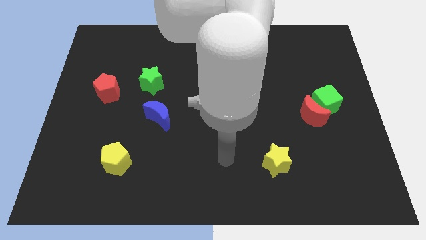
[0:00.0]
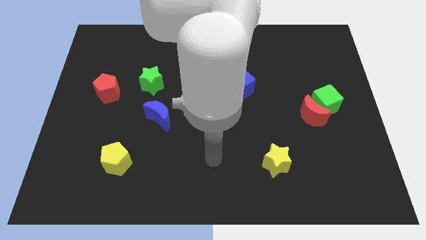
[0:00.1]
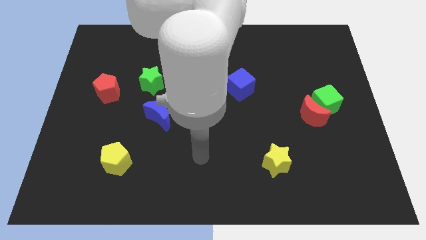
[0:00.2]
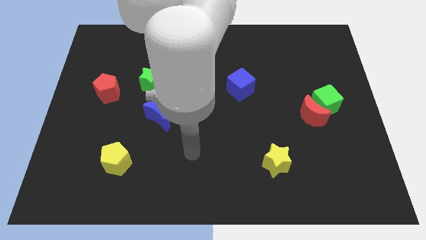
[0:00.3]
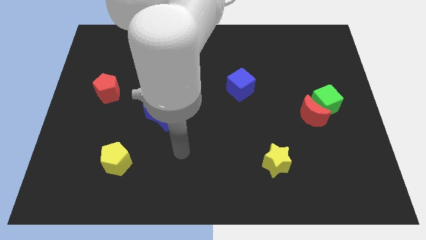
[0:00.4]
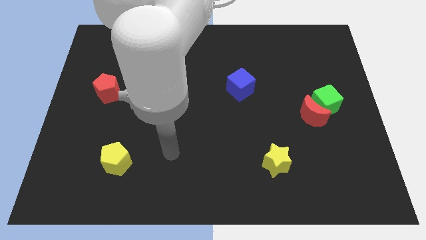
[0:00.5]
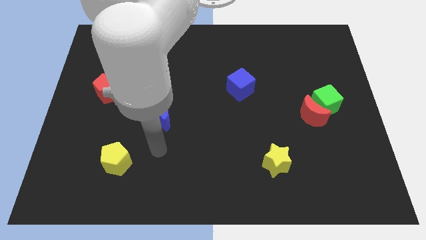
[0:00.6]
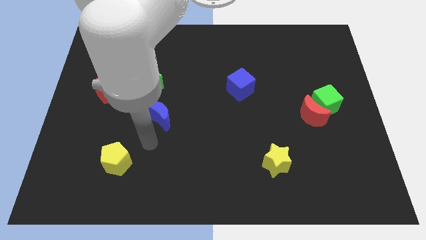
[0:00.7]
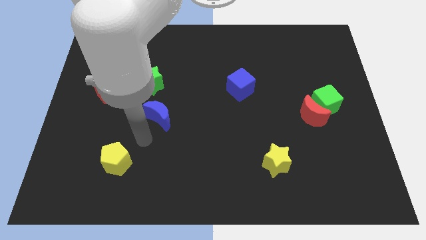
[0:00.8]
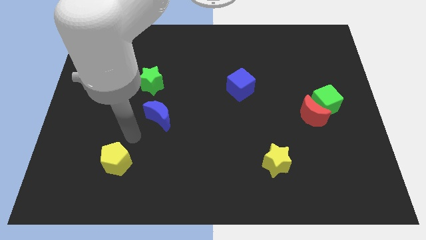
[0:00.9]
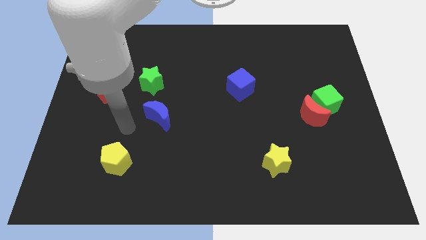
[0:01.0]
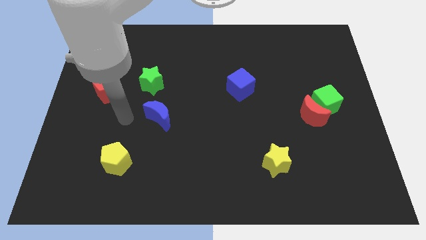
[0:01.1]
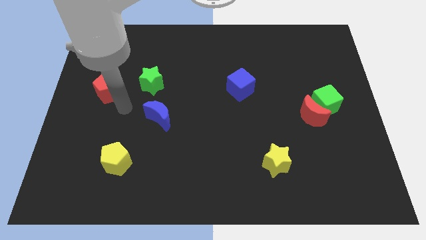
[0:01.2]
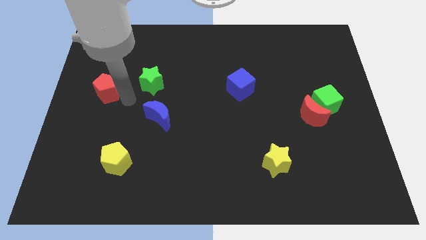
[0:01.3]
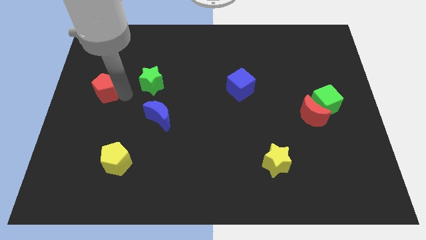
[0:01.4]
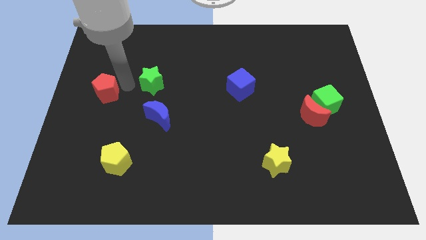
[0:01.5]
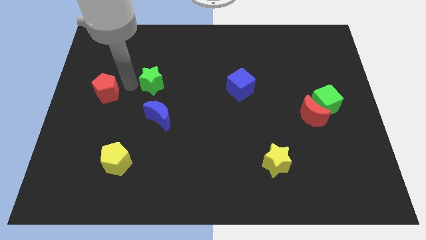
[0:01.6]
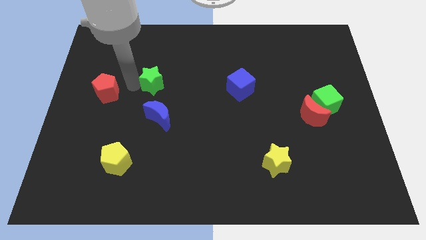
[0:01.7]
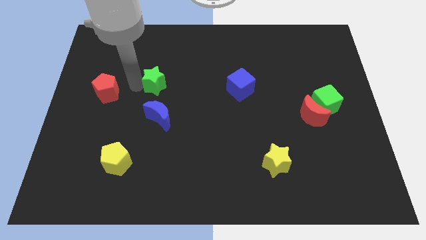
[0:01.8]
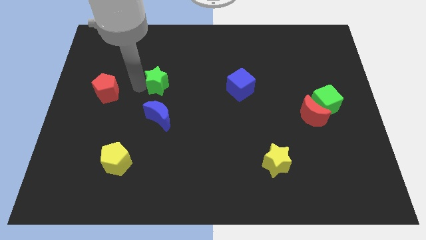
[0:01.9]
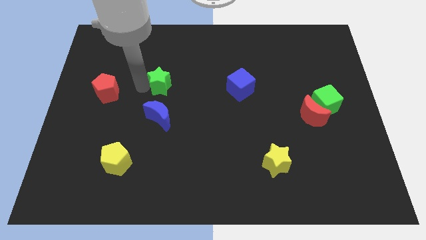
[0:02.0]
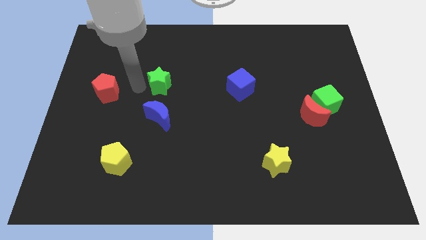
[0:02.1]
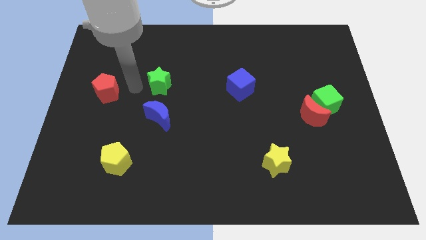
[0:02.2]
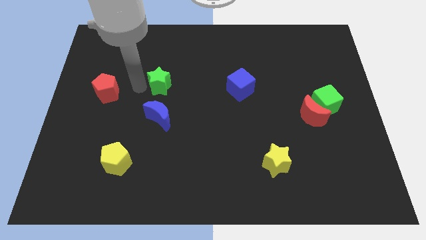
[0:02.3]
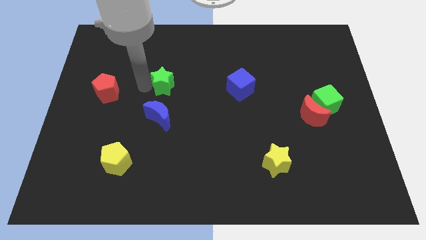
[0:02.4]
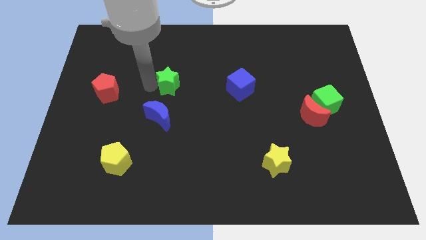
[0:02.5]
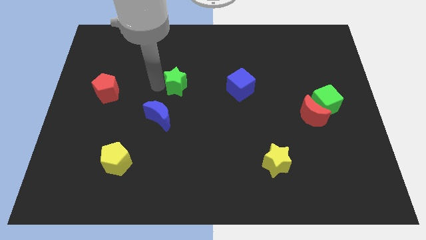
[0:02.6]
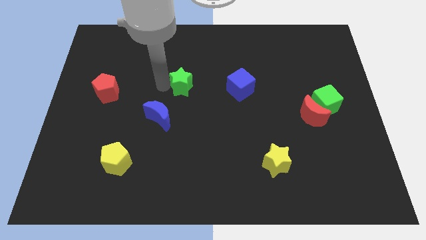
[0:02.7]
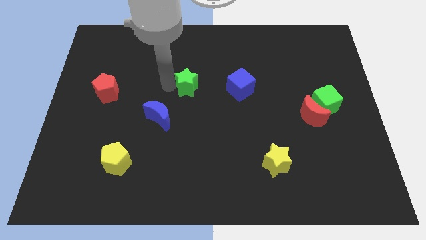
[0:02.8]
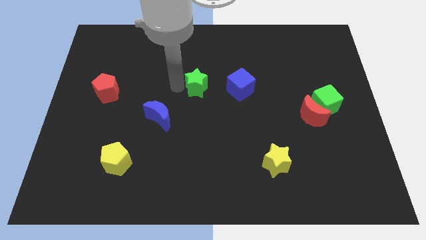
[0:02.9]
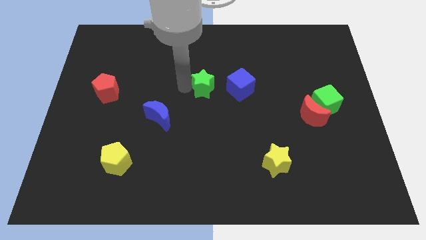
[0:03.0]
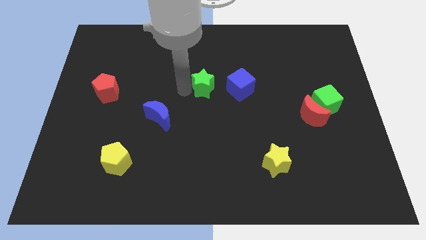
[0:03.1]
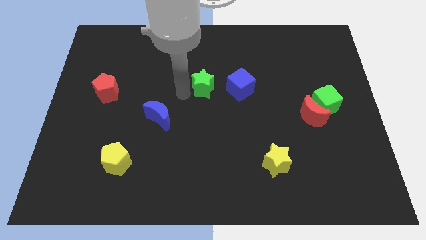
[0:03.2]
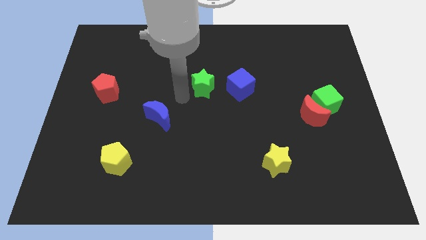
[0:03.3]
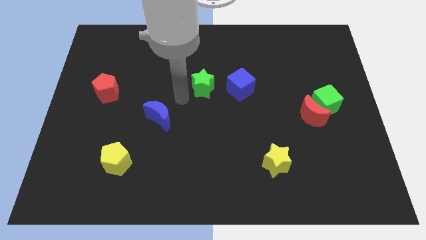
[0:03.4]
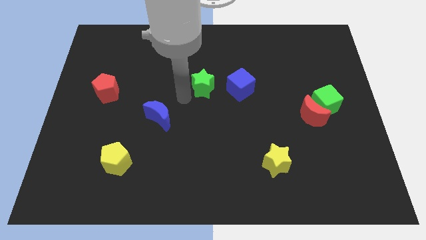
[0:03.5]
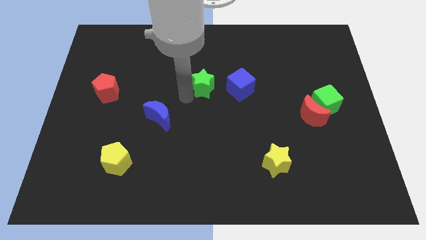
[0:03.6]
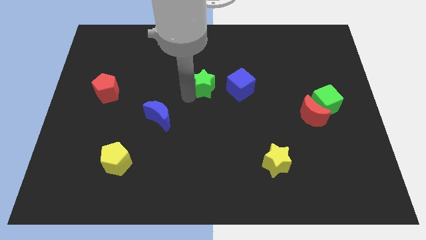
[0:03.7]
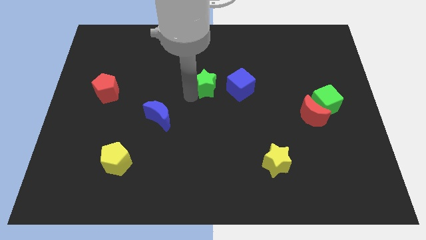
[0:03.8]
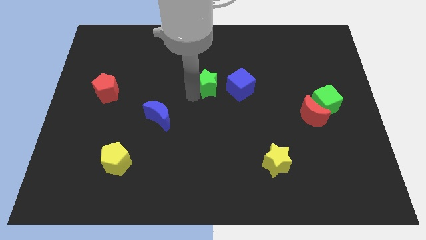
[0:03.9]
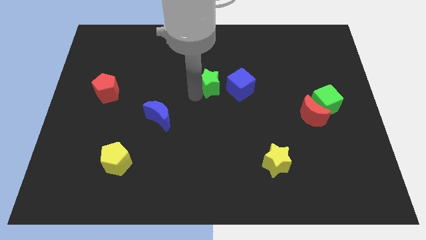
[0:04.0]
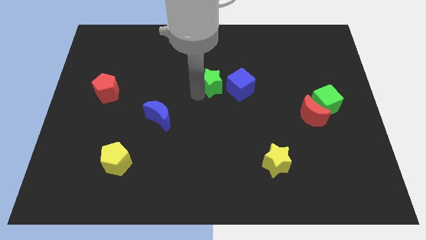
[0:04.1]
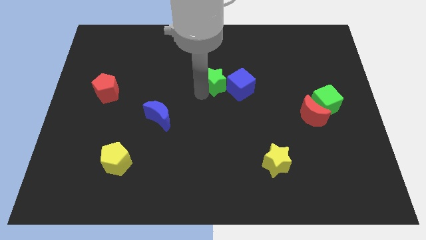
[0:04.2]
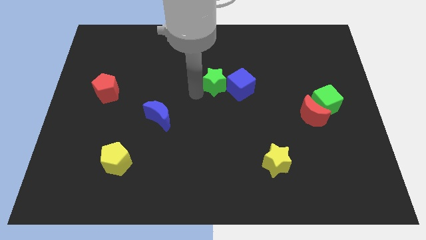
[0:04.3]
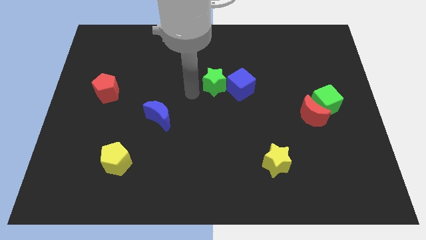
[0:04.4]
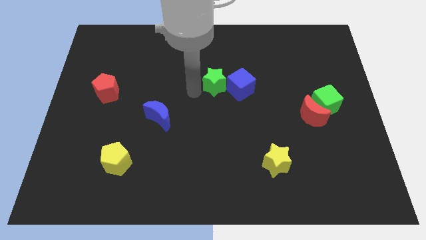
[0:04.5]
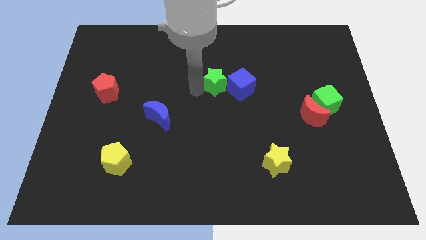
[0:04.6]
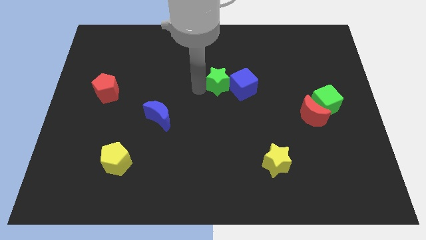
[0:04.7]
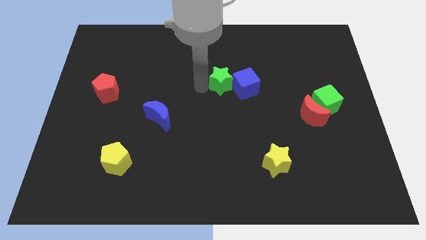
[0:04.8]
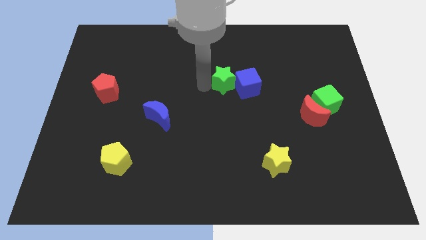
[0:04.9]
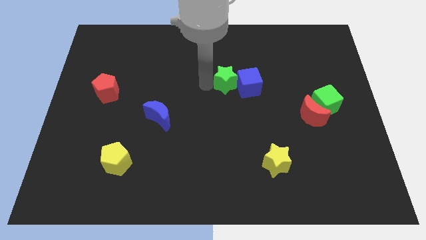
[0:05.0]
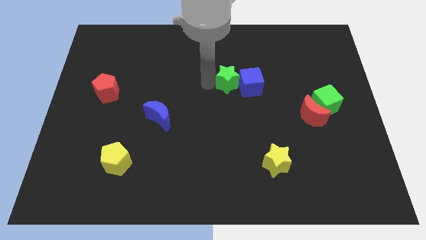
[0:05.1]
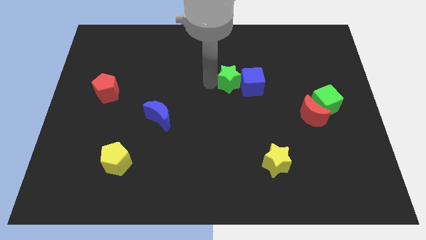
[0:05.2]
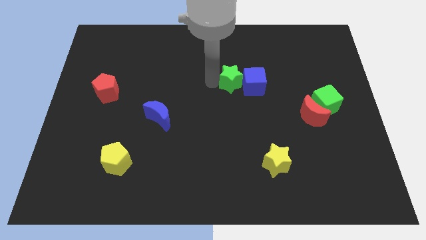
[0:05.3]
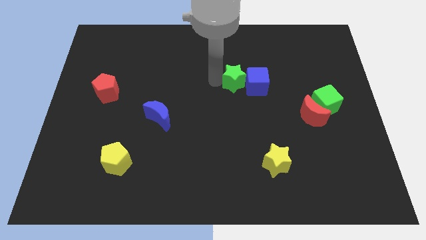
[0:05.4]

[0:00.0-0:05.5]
push the green star to the right

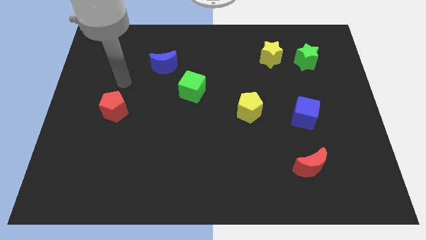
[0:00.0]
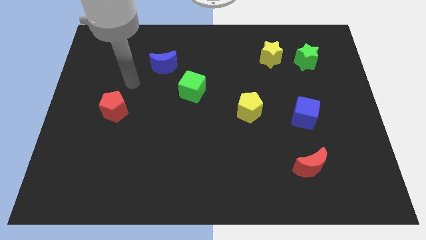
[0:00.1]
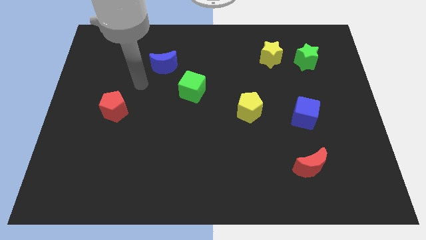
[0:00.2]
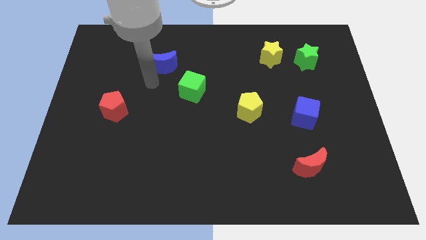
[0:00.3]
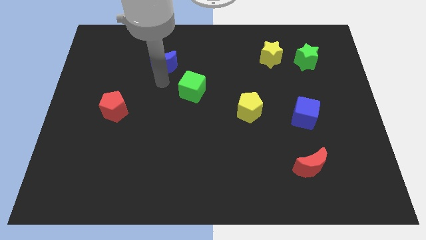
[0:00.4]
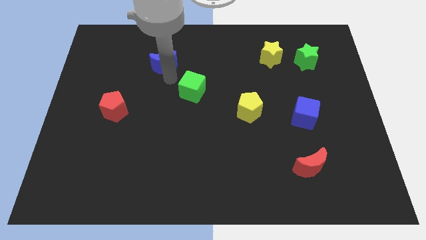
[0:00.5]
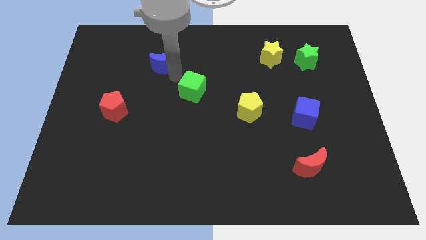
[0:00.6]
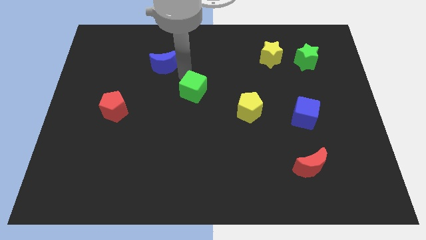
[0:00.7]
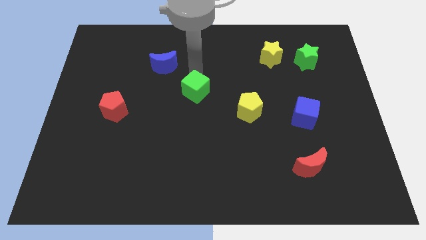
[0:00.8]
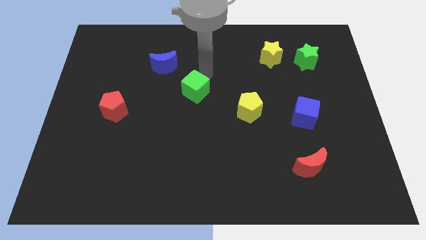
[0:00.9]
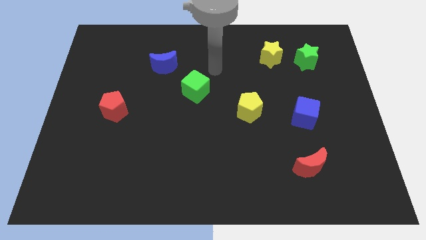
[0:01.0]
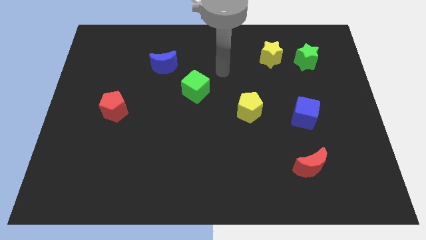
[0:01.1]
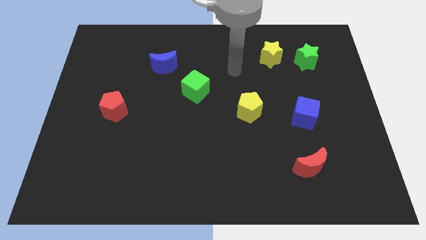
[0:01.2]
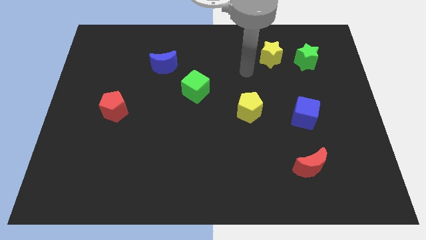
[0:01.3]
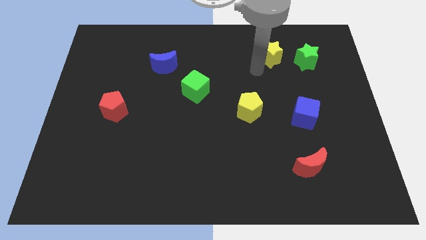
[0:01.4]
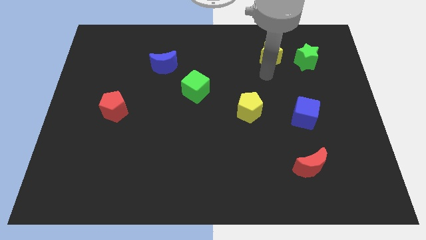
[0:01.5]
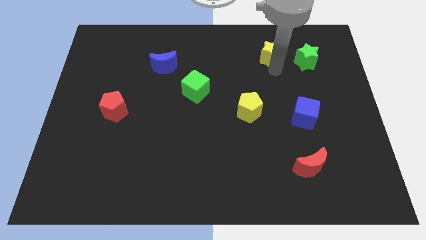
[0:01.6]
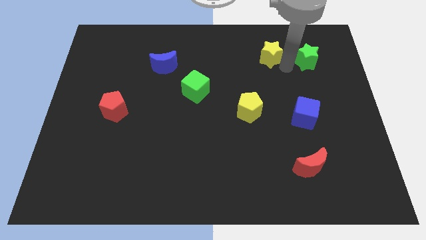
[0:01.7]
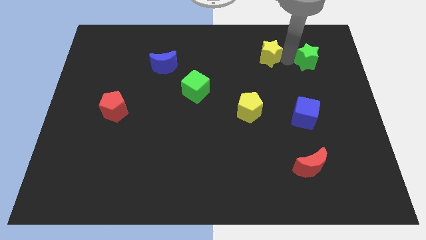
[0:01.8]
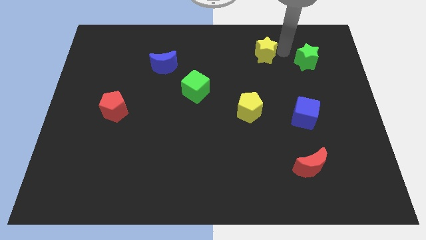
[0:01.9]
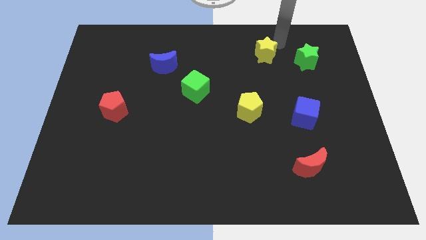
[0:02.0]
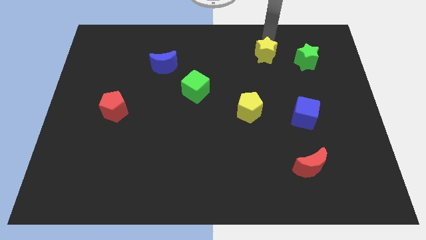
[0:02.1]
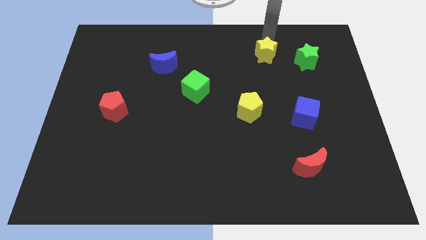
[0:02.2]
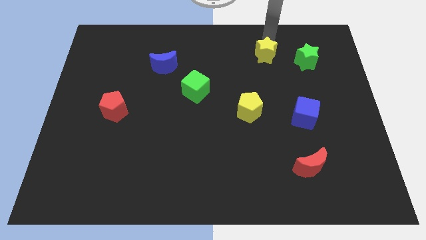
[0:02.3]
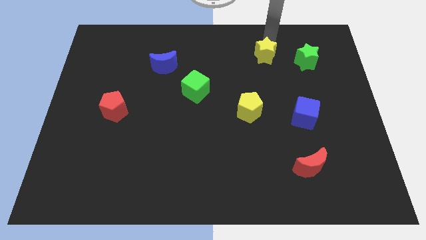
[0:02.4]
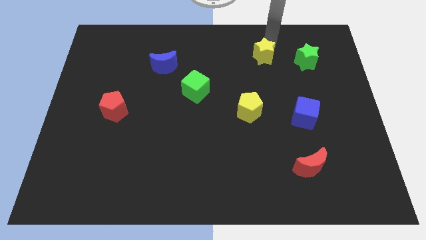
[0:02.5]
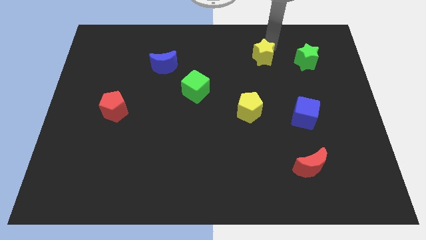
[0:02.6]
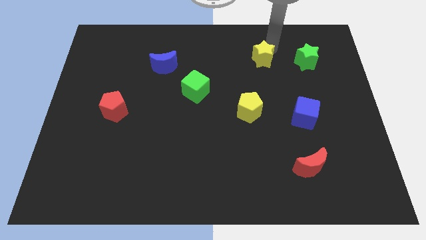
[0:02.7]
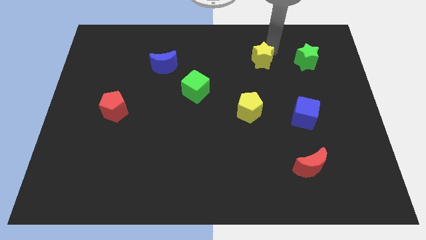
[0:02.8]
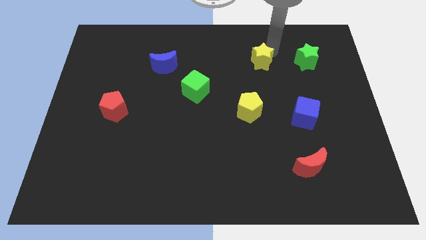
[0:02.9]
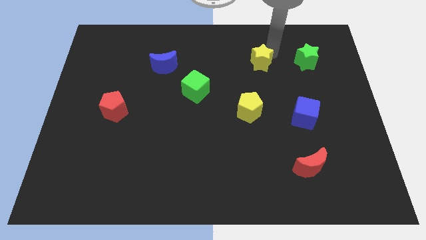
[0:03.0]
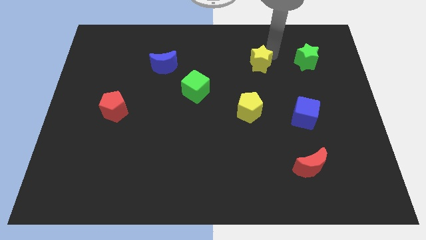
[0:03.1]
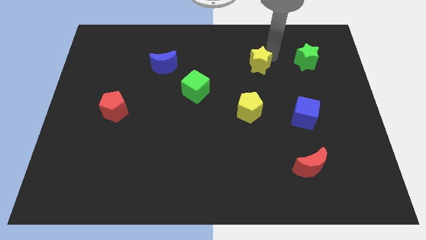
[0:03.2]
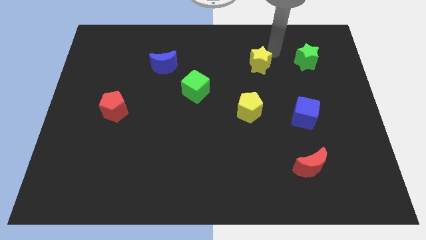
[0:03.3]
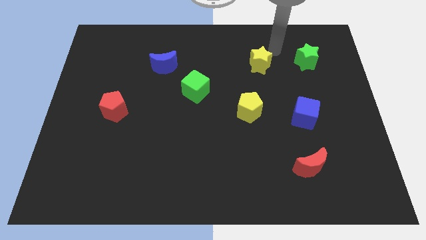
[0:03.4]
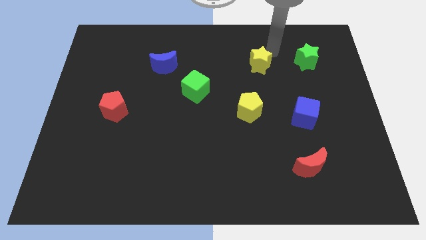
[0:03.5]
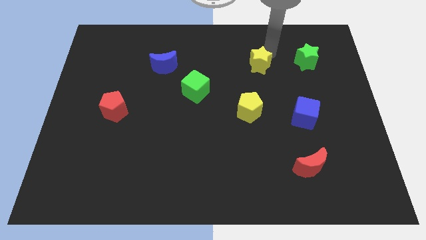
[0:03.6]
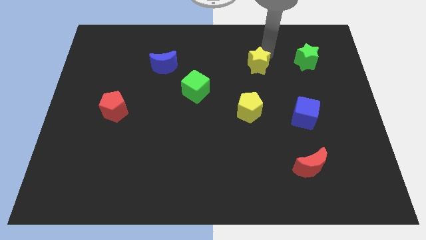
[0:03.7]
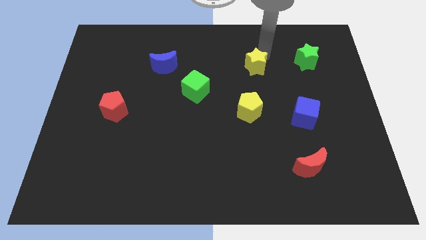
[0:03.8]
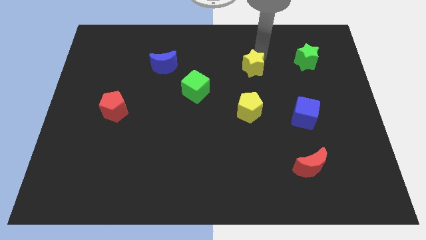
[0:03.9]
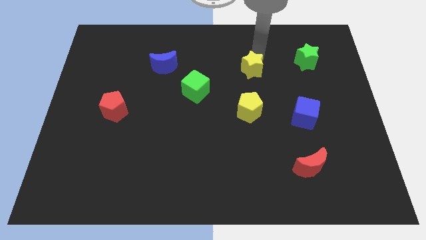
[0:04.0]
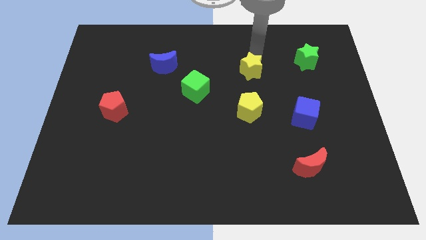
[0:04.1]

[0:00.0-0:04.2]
move the yellow star diagonally down and to the left somewhat
